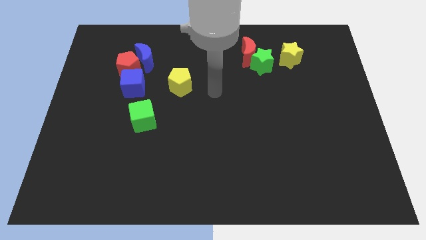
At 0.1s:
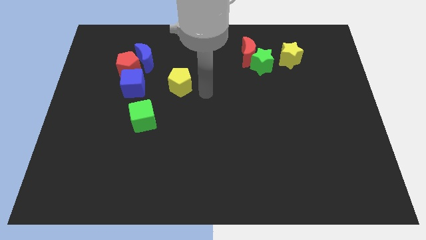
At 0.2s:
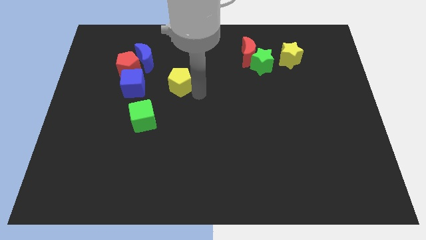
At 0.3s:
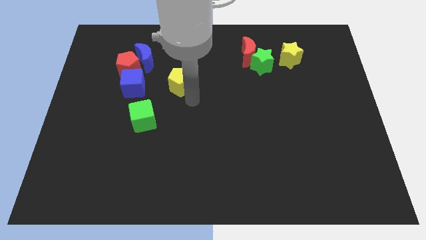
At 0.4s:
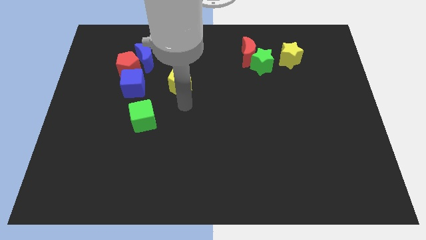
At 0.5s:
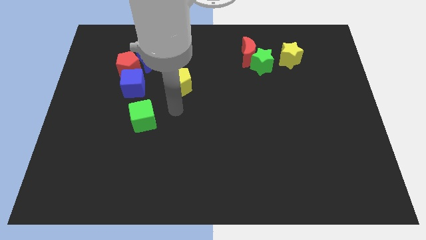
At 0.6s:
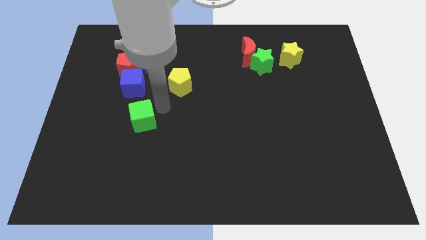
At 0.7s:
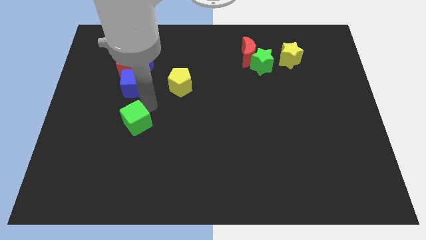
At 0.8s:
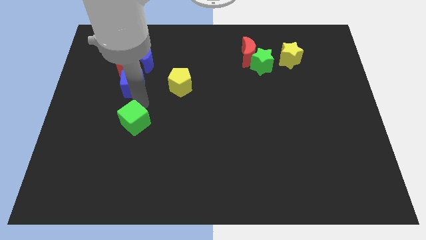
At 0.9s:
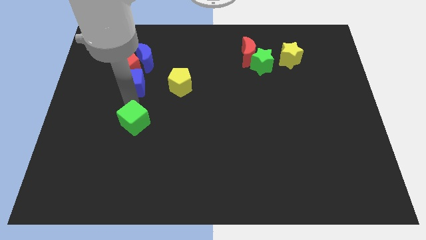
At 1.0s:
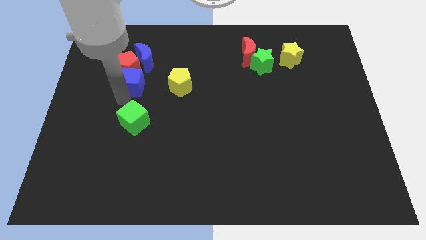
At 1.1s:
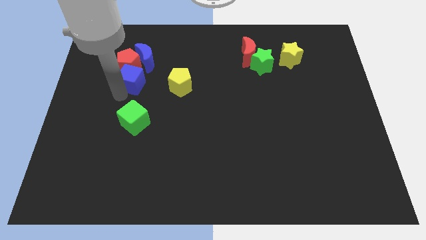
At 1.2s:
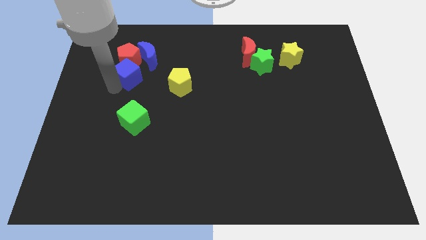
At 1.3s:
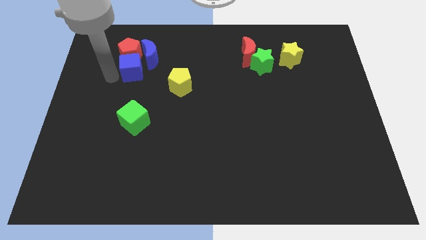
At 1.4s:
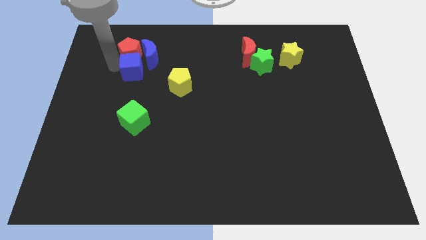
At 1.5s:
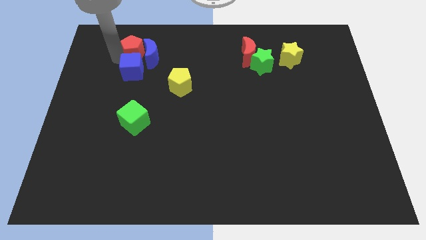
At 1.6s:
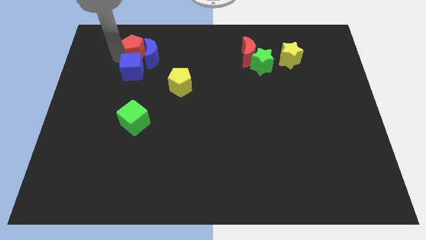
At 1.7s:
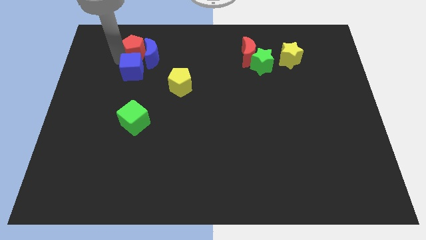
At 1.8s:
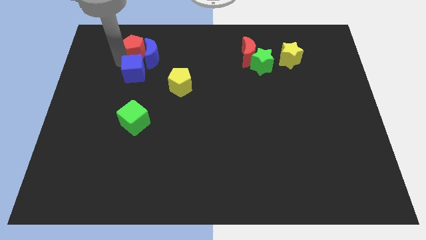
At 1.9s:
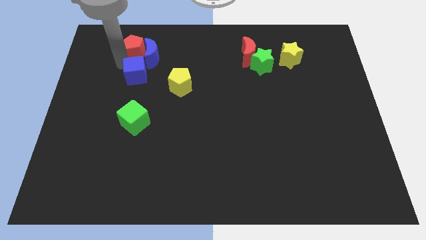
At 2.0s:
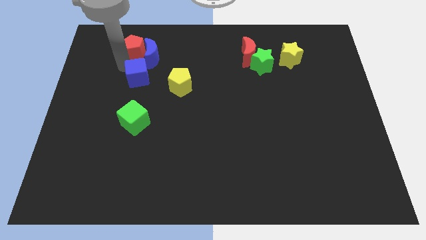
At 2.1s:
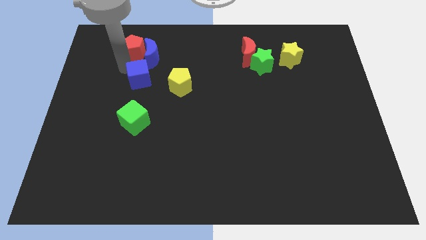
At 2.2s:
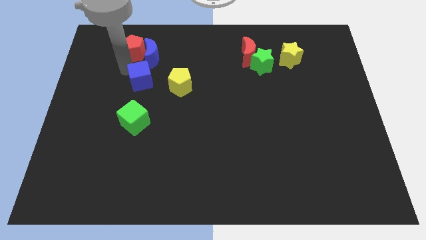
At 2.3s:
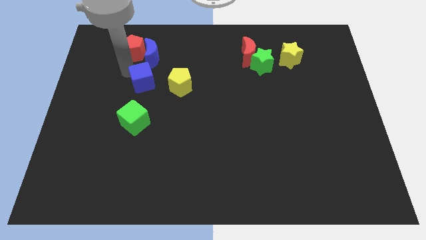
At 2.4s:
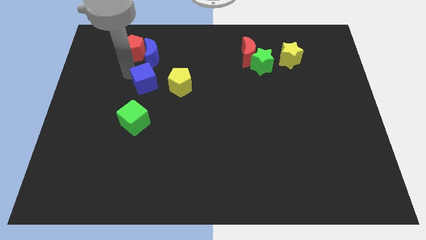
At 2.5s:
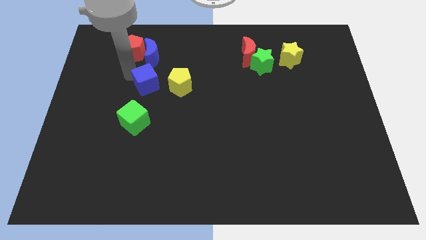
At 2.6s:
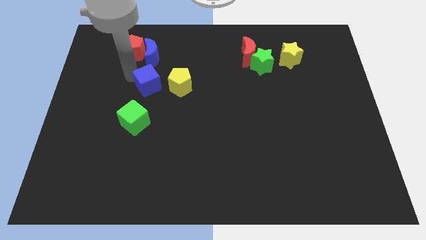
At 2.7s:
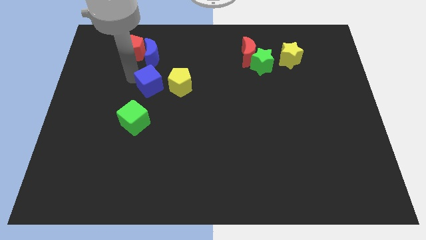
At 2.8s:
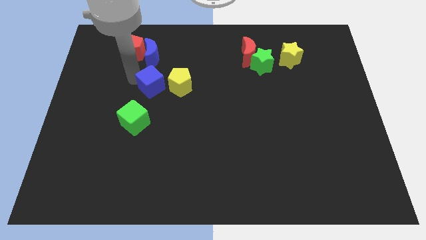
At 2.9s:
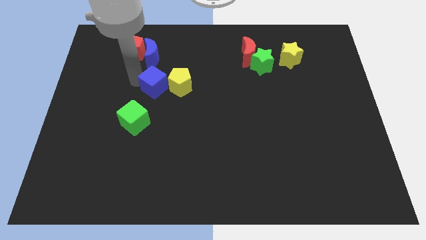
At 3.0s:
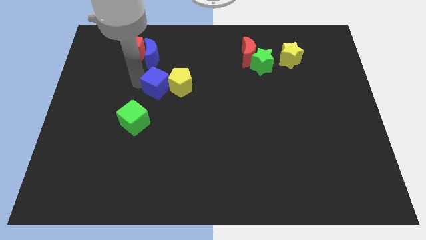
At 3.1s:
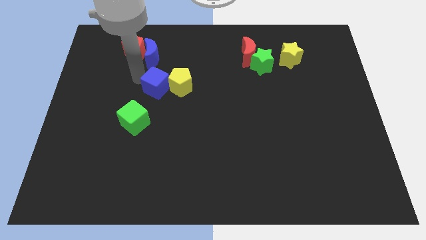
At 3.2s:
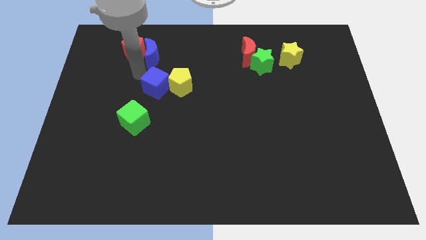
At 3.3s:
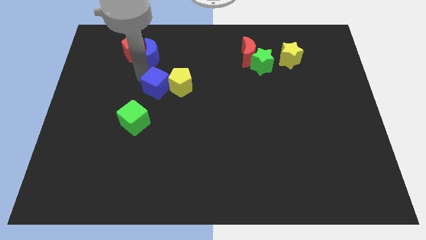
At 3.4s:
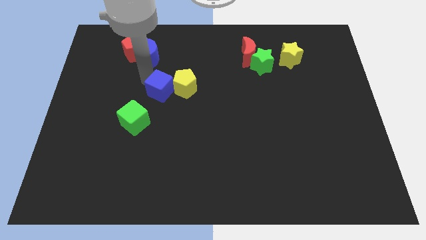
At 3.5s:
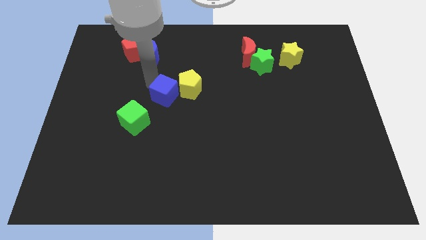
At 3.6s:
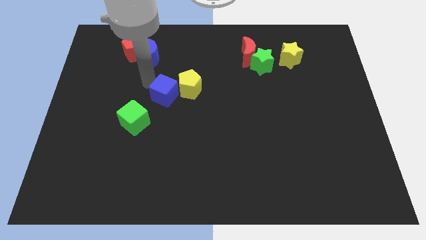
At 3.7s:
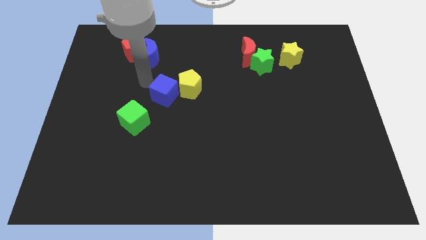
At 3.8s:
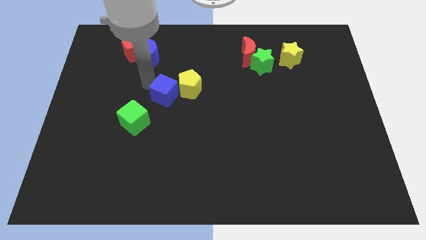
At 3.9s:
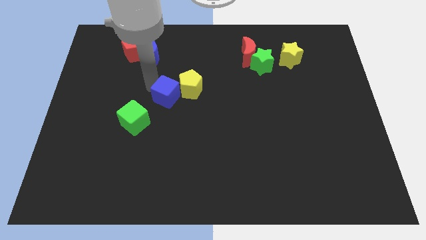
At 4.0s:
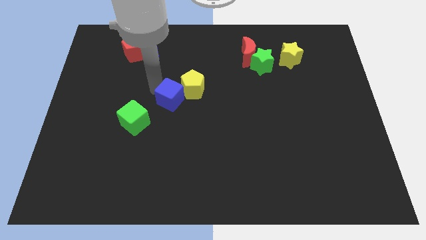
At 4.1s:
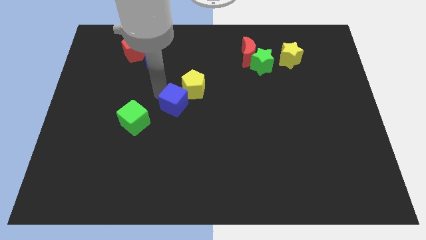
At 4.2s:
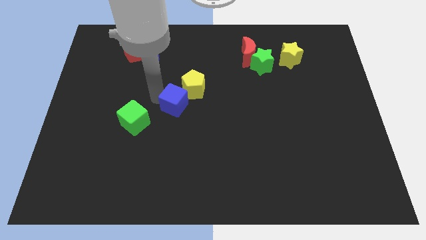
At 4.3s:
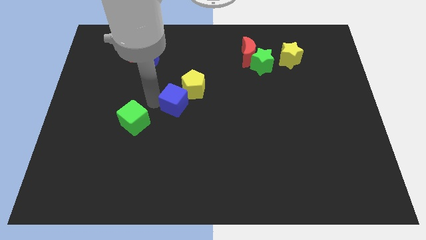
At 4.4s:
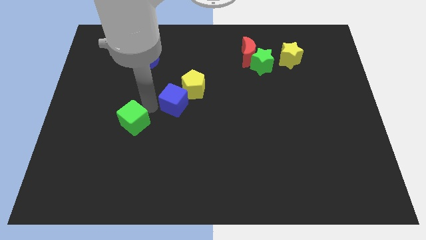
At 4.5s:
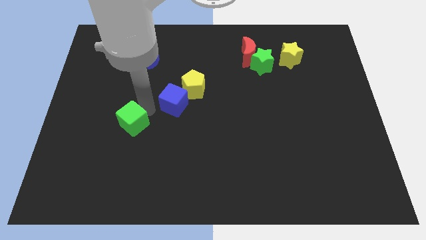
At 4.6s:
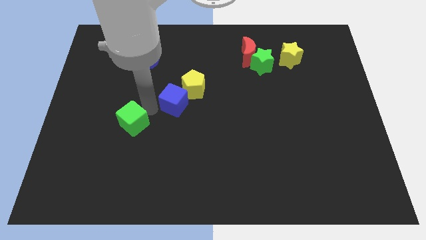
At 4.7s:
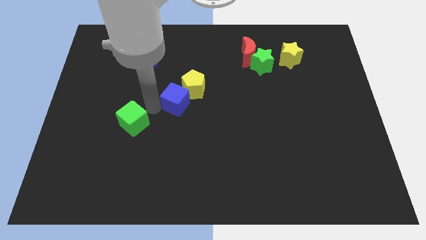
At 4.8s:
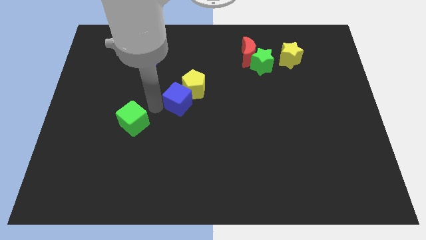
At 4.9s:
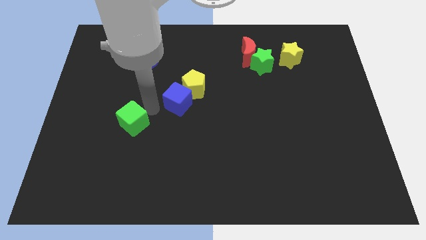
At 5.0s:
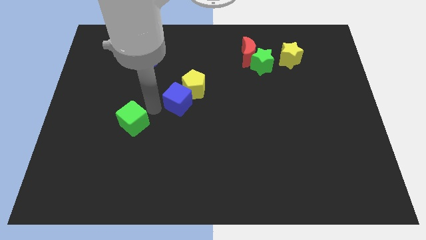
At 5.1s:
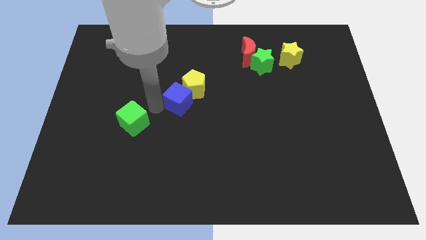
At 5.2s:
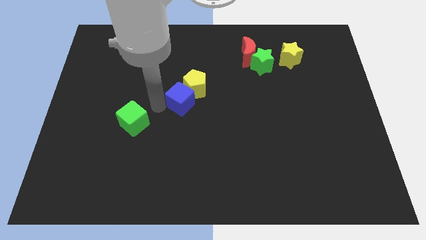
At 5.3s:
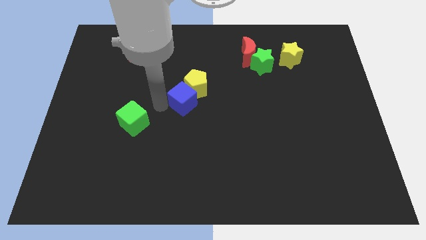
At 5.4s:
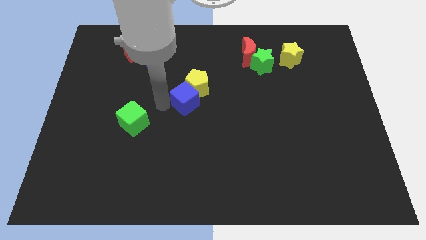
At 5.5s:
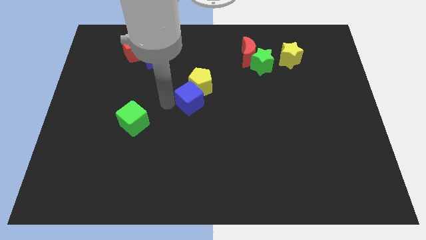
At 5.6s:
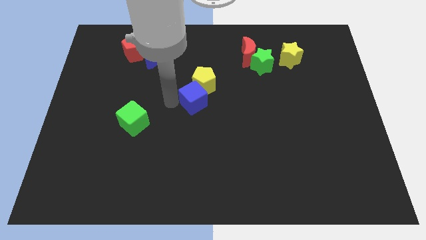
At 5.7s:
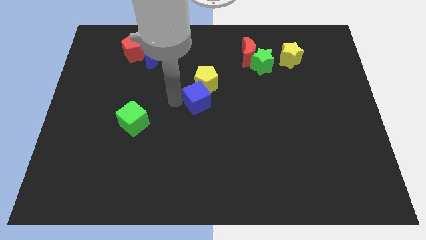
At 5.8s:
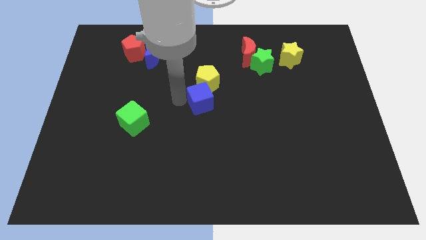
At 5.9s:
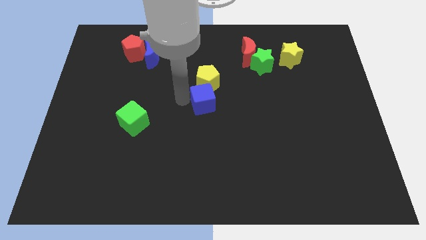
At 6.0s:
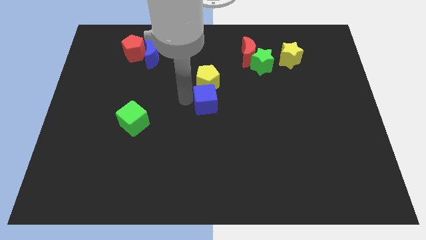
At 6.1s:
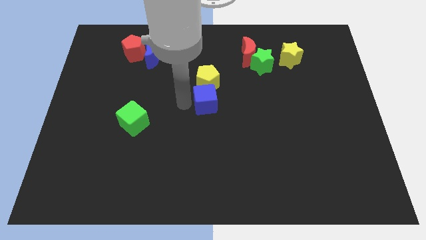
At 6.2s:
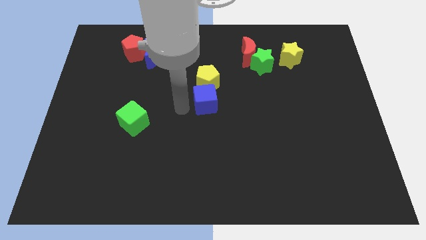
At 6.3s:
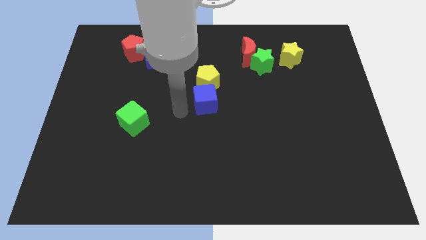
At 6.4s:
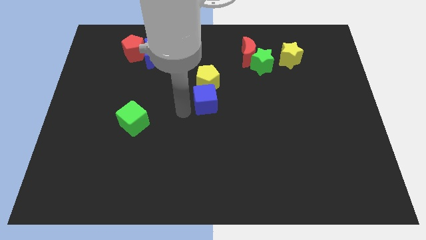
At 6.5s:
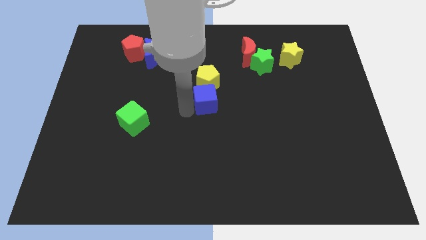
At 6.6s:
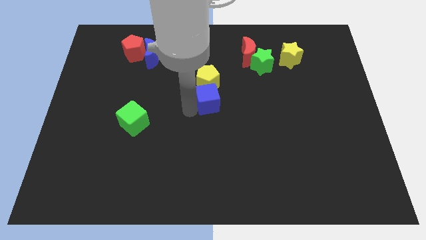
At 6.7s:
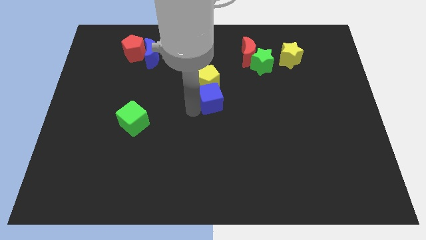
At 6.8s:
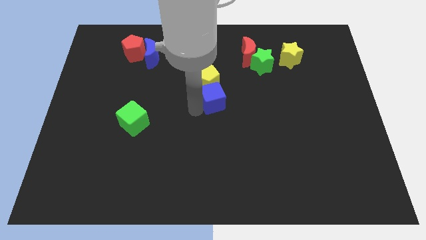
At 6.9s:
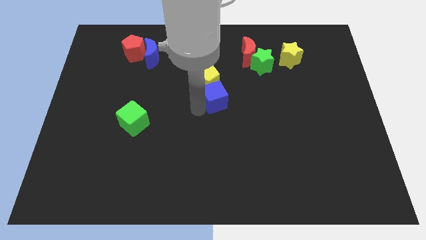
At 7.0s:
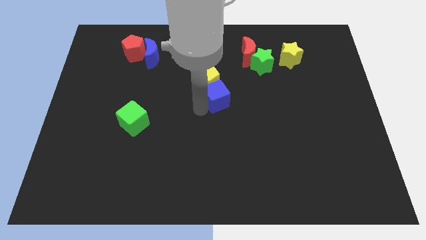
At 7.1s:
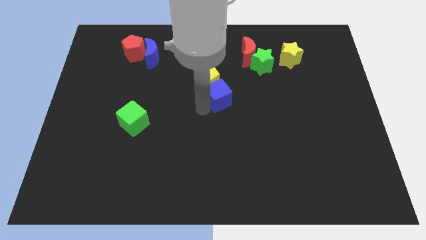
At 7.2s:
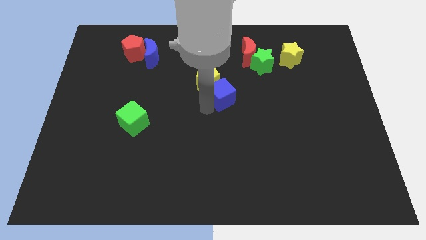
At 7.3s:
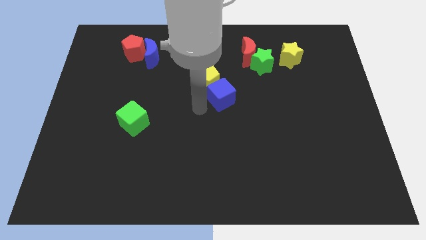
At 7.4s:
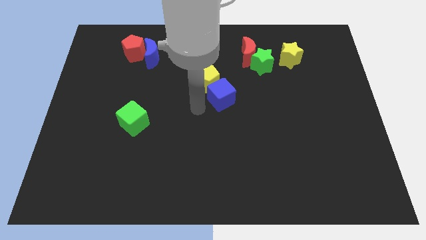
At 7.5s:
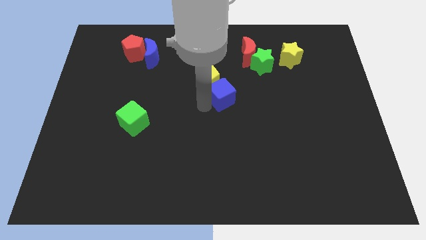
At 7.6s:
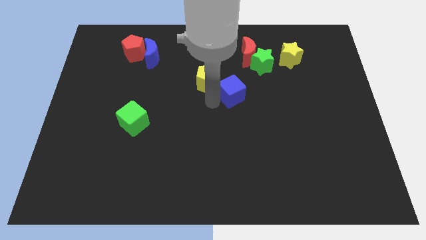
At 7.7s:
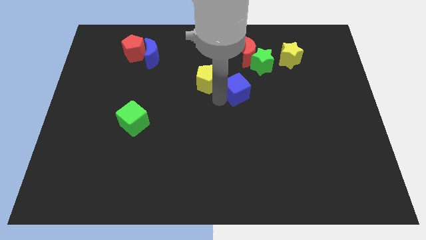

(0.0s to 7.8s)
push the blue cube to the bottom of the red moon
